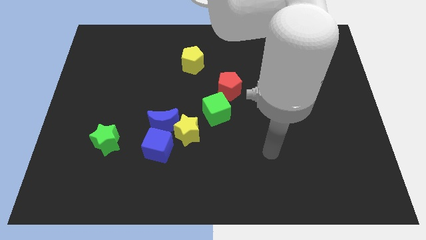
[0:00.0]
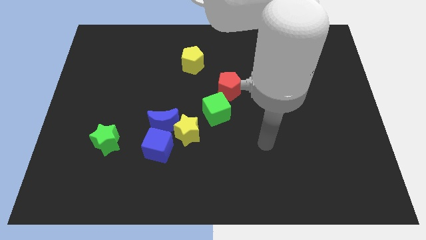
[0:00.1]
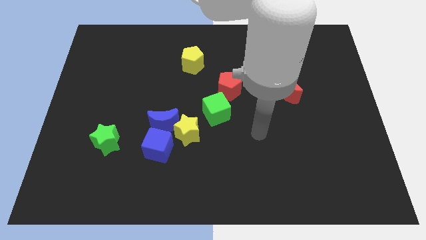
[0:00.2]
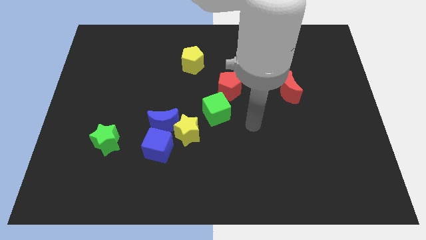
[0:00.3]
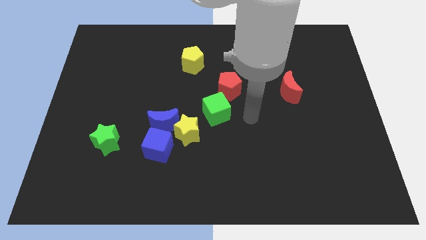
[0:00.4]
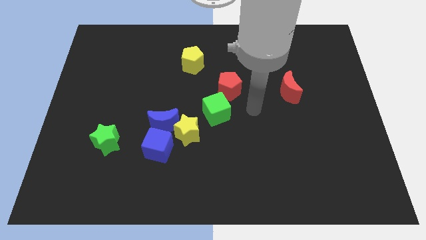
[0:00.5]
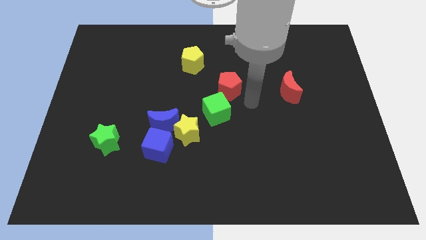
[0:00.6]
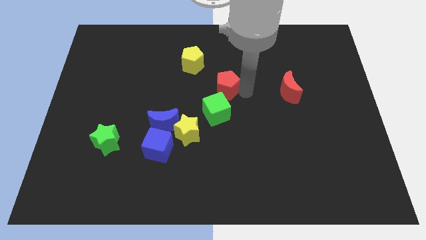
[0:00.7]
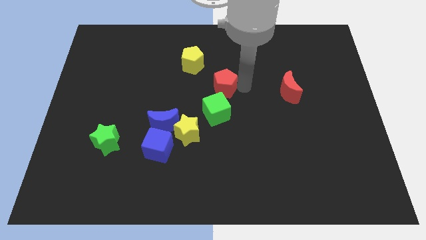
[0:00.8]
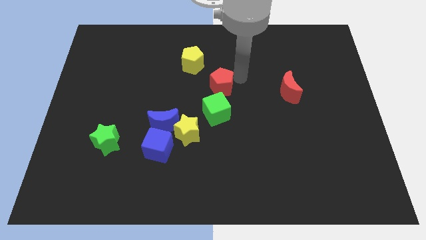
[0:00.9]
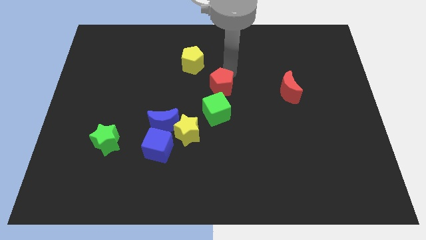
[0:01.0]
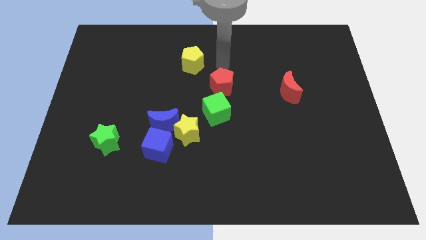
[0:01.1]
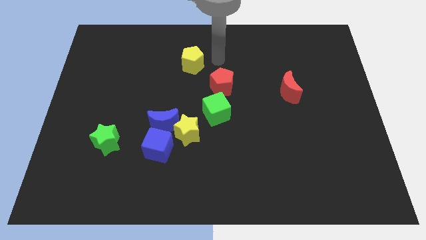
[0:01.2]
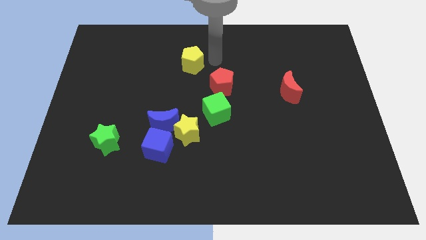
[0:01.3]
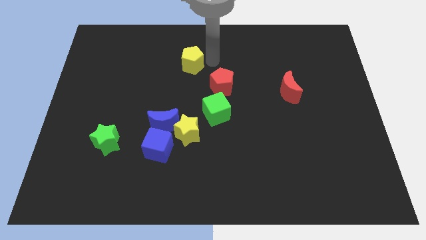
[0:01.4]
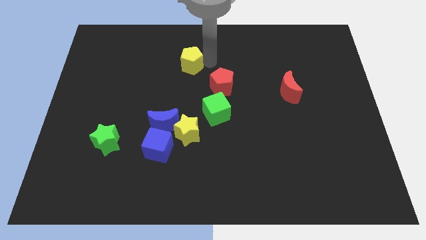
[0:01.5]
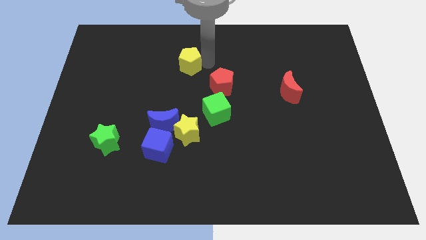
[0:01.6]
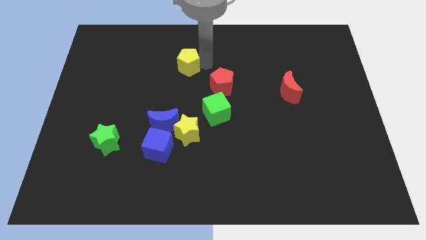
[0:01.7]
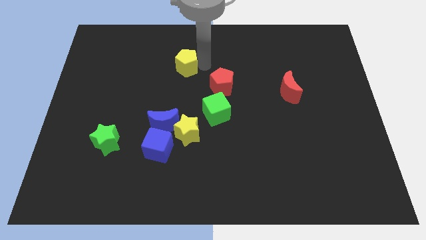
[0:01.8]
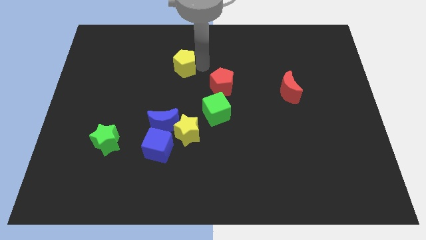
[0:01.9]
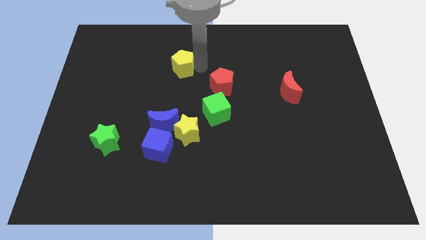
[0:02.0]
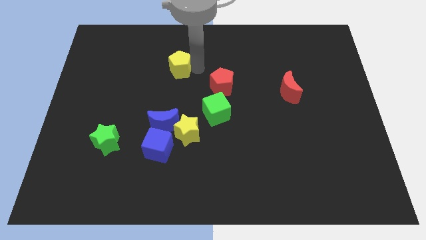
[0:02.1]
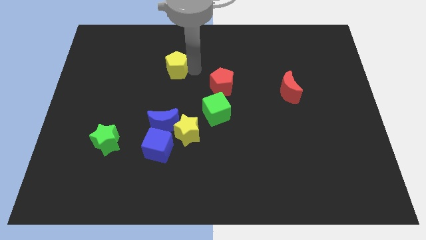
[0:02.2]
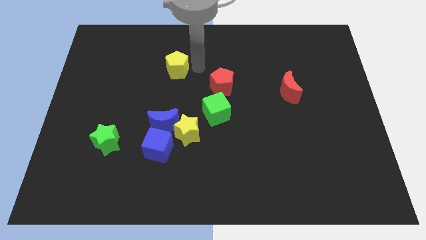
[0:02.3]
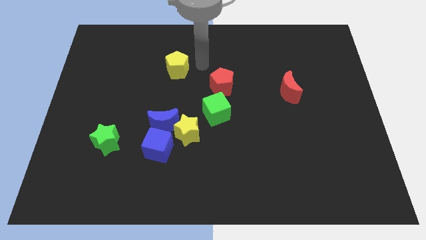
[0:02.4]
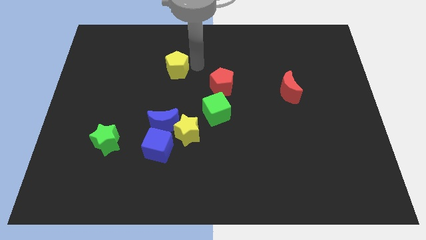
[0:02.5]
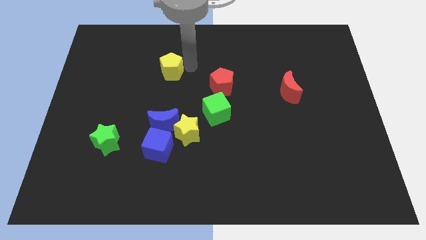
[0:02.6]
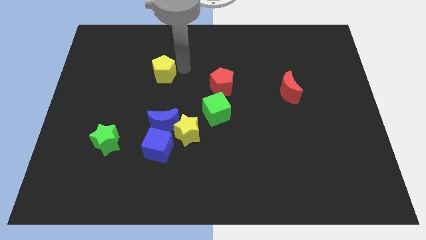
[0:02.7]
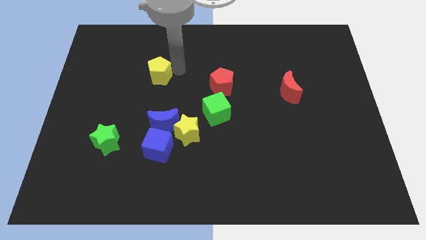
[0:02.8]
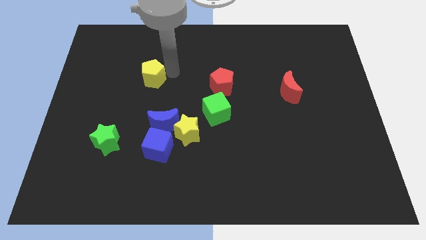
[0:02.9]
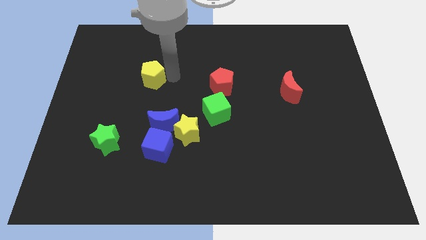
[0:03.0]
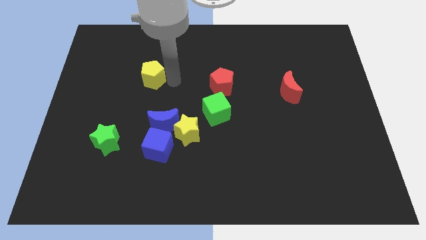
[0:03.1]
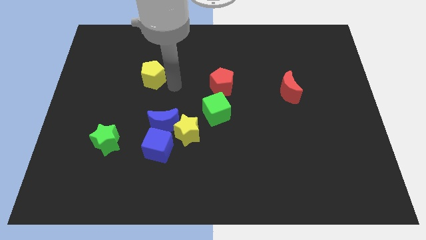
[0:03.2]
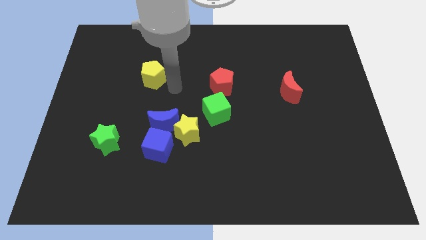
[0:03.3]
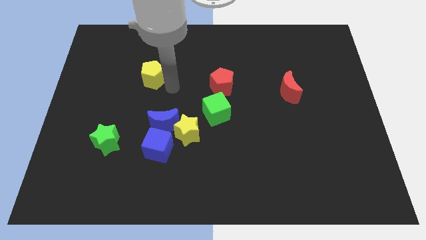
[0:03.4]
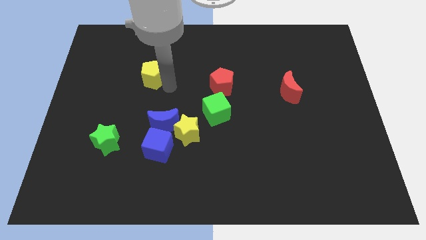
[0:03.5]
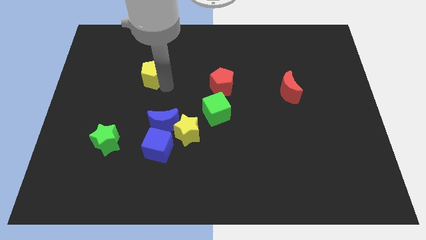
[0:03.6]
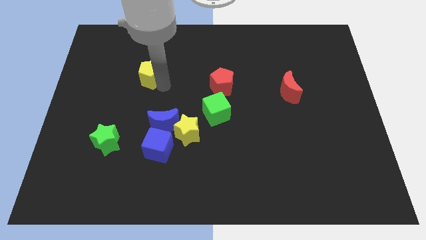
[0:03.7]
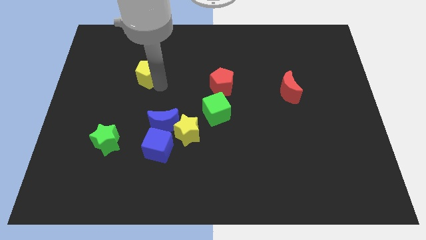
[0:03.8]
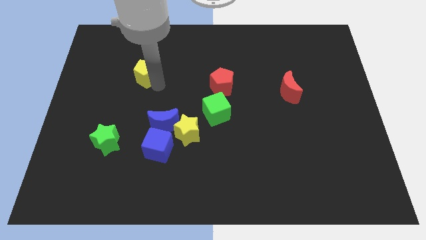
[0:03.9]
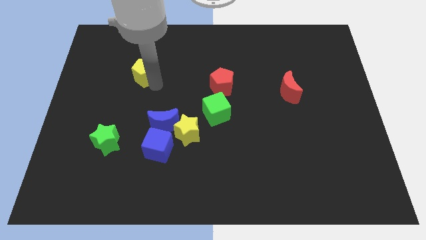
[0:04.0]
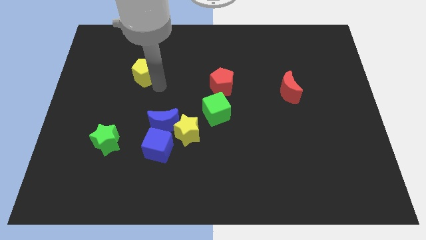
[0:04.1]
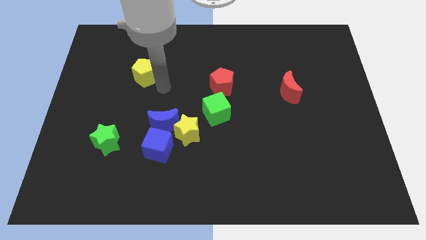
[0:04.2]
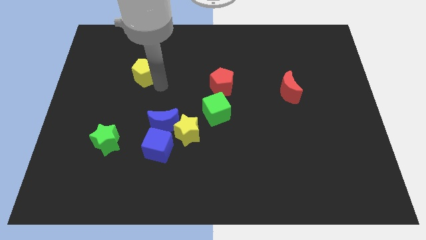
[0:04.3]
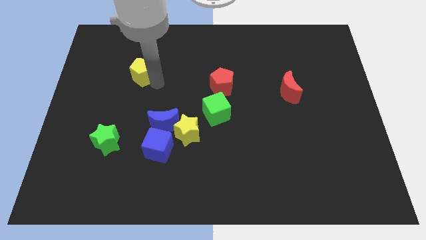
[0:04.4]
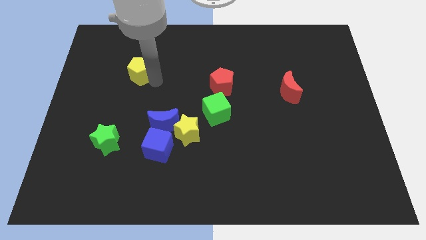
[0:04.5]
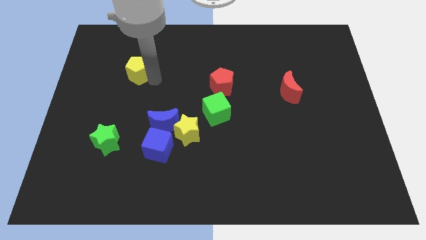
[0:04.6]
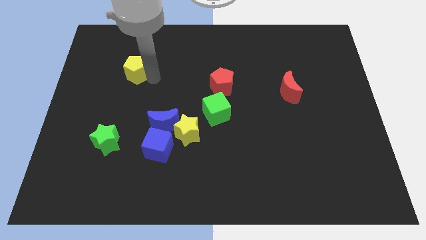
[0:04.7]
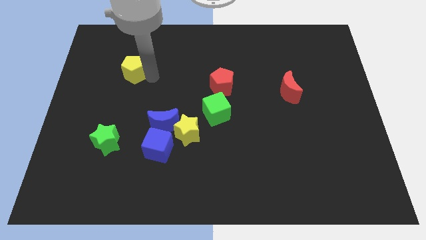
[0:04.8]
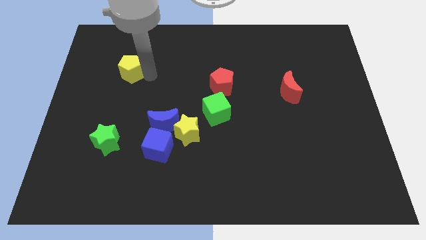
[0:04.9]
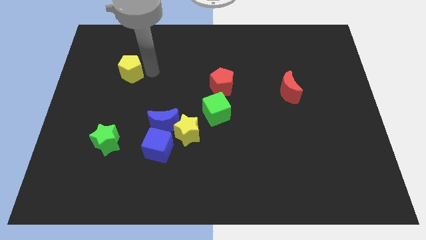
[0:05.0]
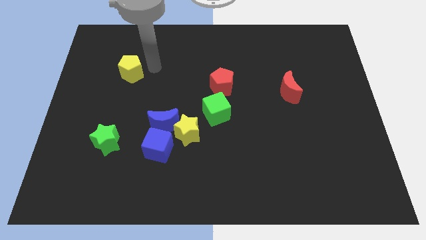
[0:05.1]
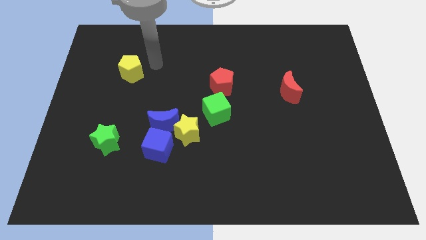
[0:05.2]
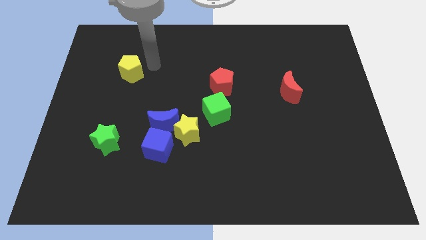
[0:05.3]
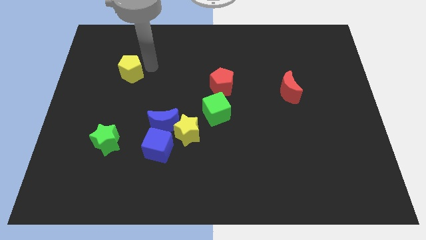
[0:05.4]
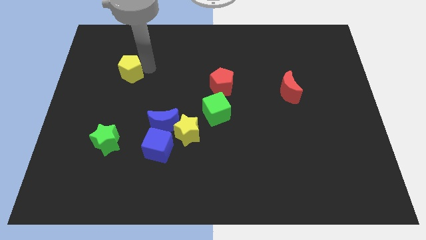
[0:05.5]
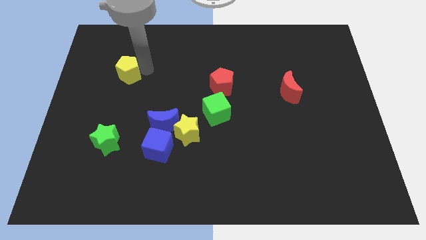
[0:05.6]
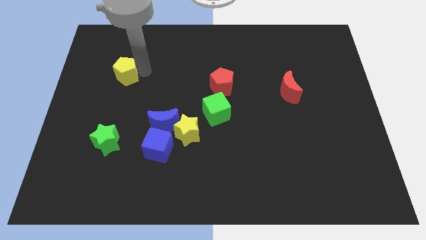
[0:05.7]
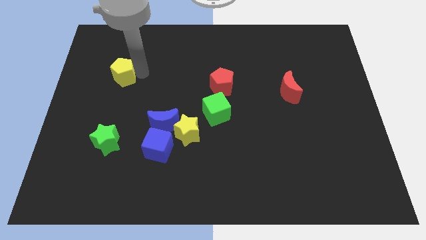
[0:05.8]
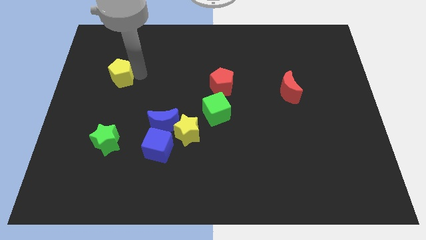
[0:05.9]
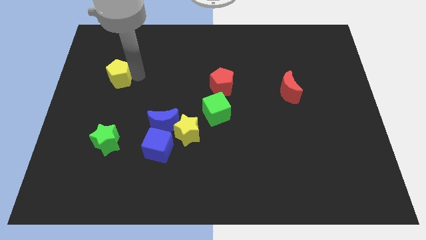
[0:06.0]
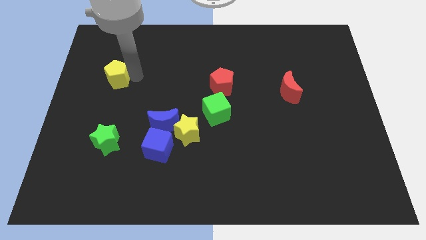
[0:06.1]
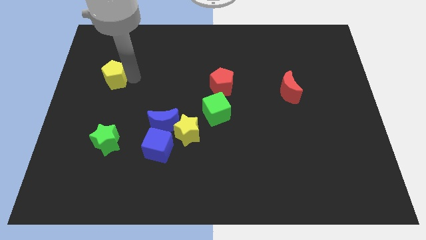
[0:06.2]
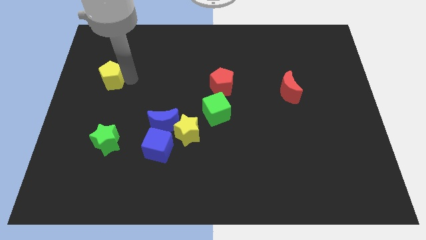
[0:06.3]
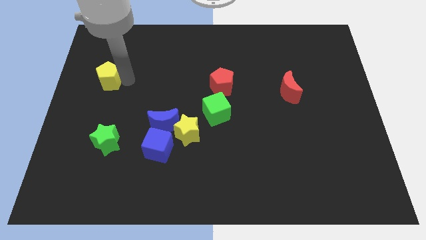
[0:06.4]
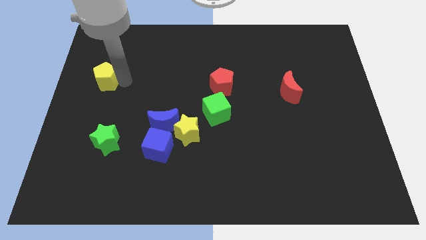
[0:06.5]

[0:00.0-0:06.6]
move the yellow pentagon to the center left
